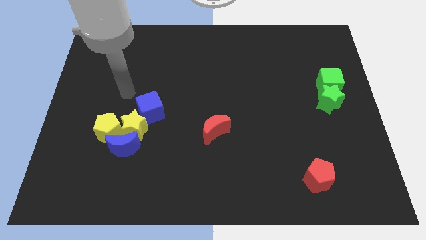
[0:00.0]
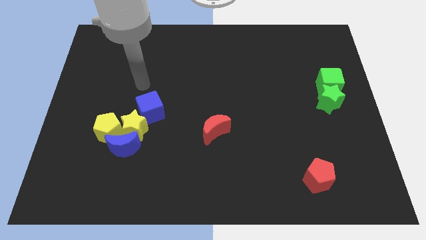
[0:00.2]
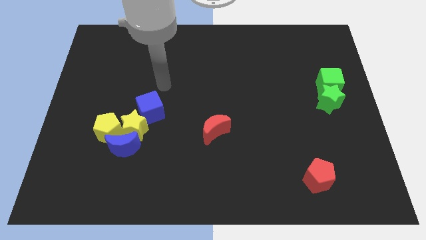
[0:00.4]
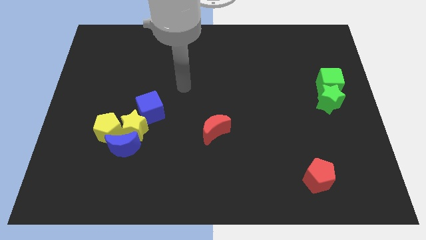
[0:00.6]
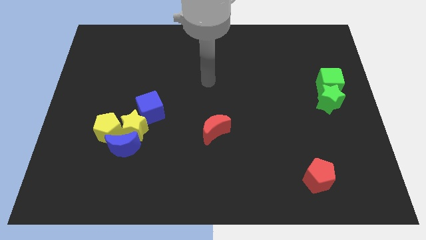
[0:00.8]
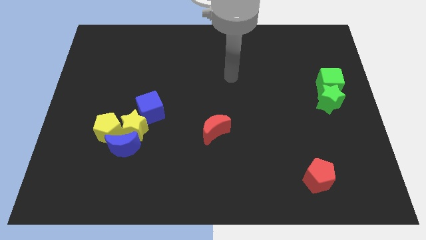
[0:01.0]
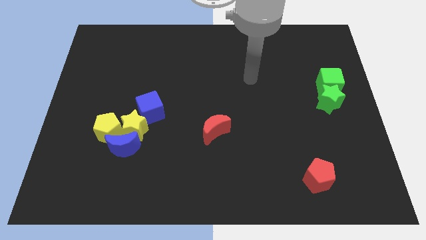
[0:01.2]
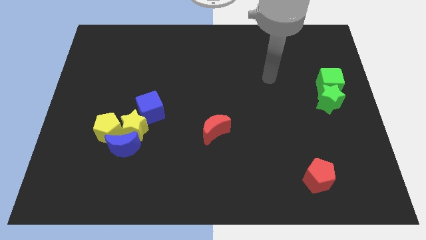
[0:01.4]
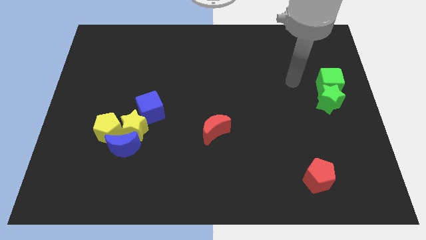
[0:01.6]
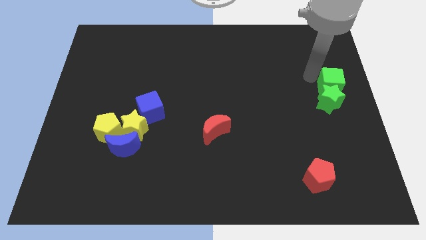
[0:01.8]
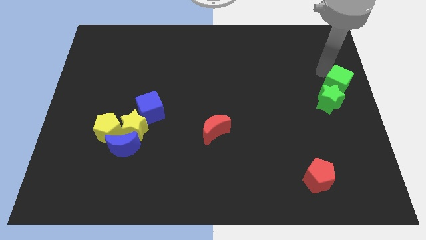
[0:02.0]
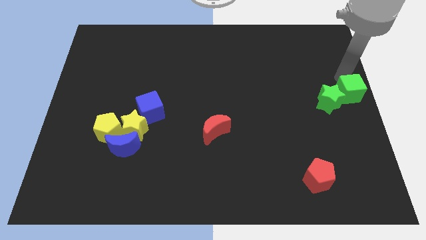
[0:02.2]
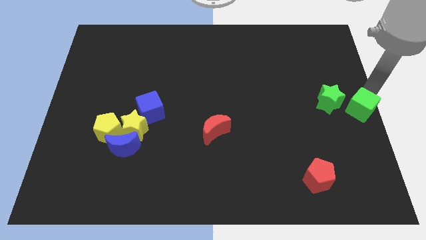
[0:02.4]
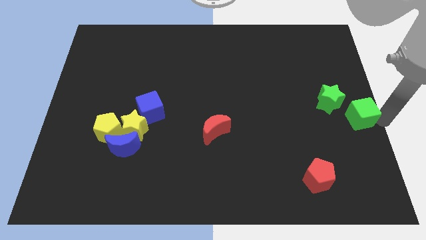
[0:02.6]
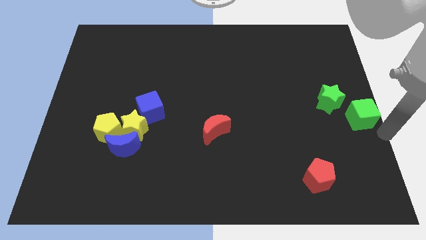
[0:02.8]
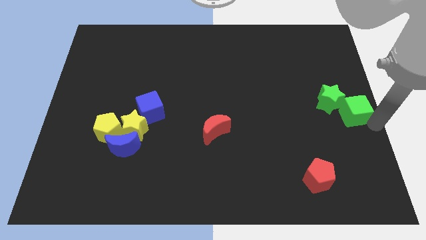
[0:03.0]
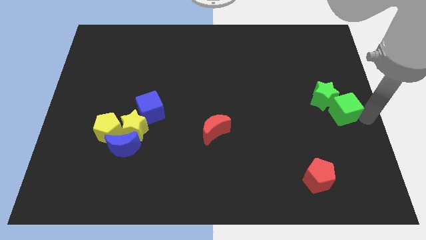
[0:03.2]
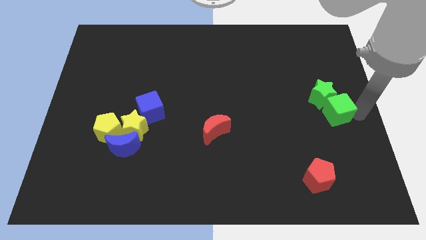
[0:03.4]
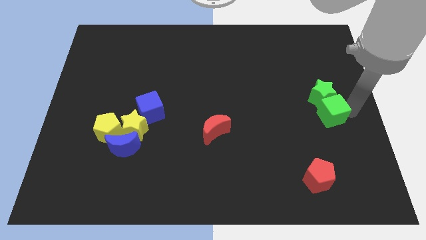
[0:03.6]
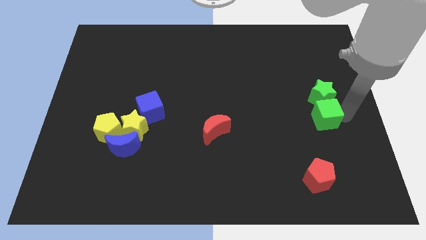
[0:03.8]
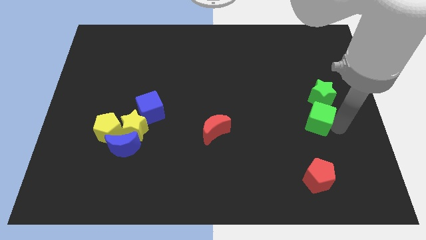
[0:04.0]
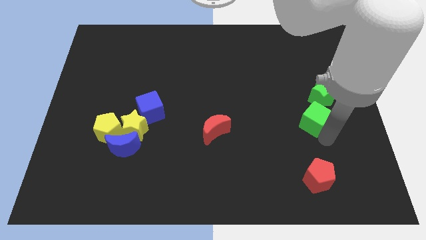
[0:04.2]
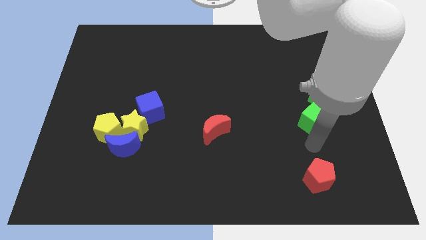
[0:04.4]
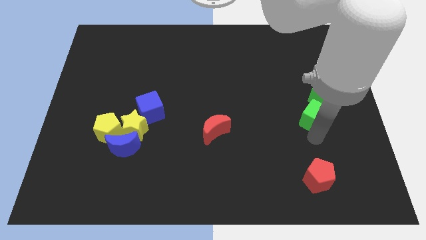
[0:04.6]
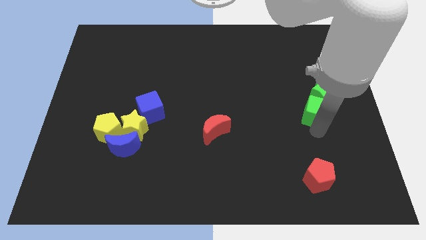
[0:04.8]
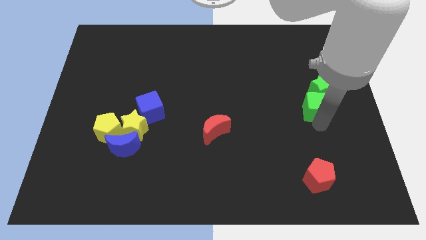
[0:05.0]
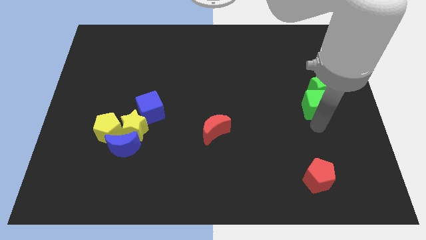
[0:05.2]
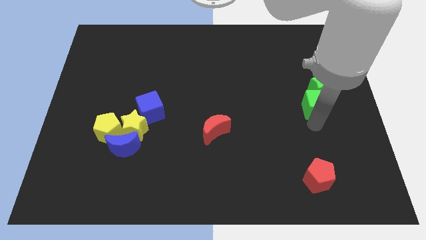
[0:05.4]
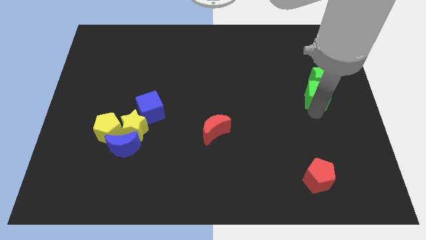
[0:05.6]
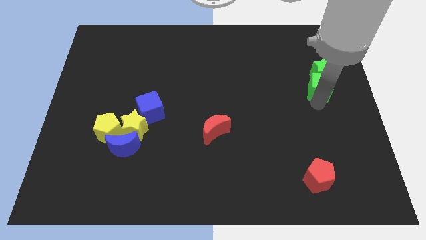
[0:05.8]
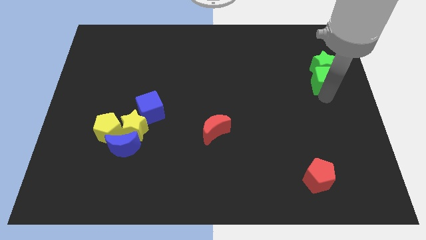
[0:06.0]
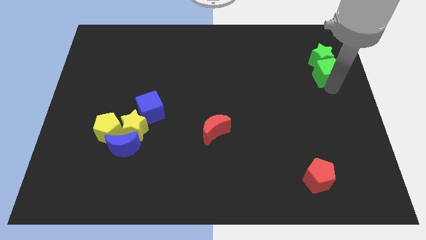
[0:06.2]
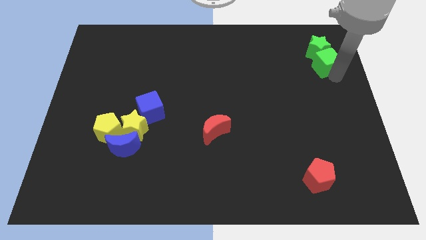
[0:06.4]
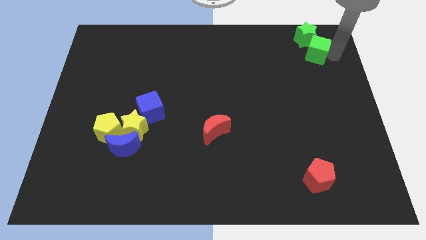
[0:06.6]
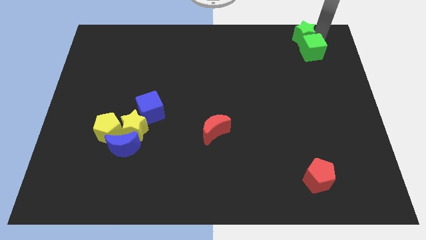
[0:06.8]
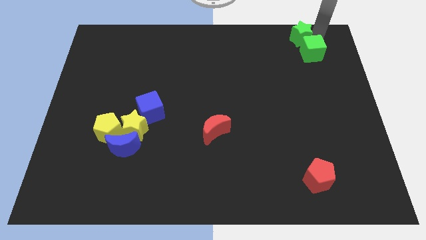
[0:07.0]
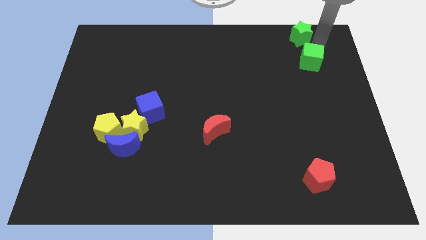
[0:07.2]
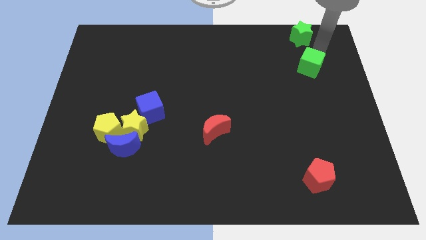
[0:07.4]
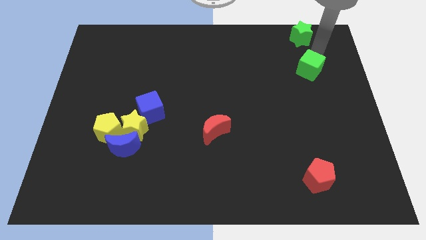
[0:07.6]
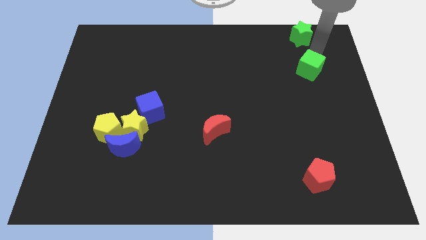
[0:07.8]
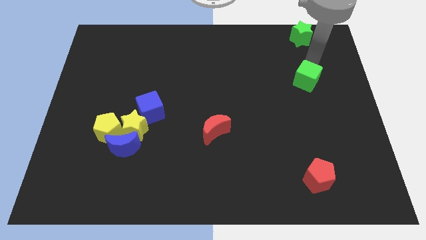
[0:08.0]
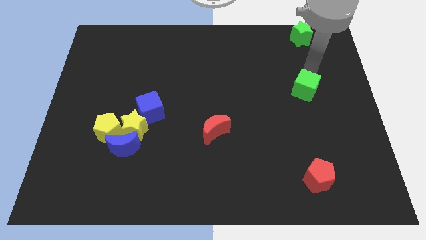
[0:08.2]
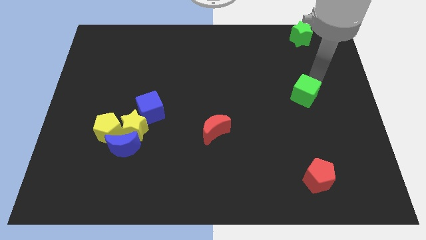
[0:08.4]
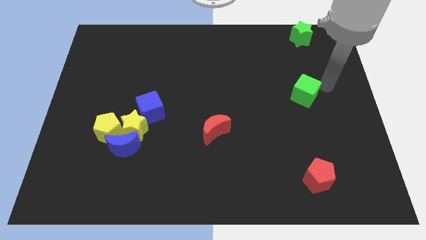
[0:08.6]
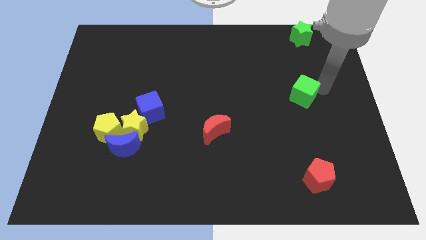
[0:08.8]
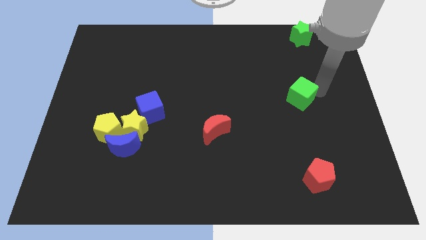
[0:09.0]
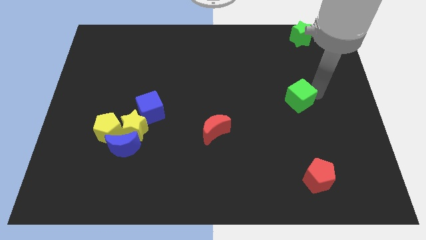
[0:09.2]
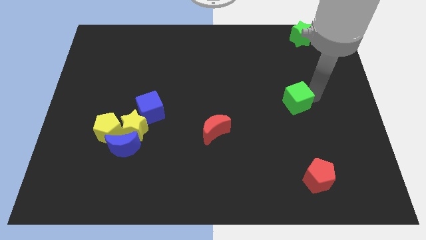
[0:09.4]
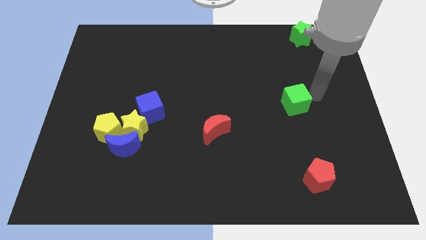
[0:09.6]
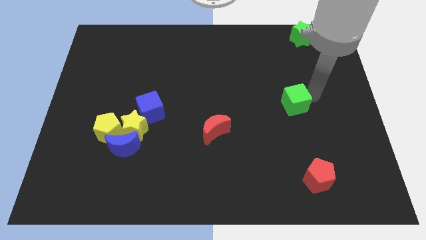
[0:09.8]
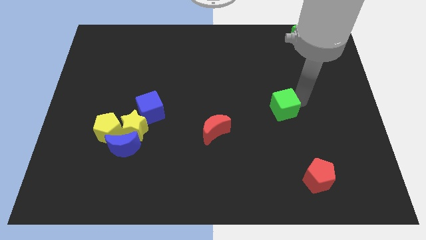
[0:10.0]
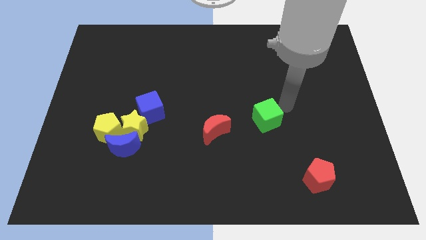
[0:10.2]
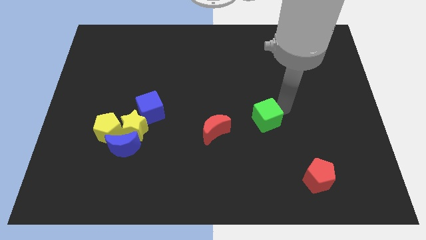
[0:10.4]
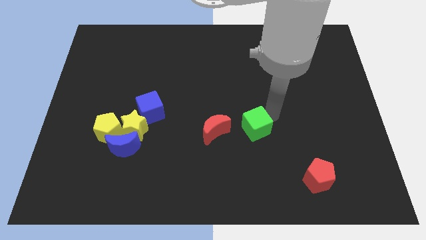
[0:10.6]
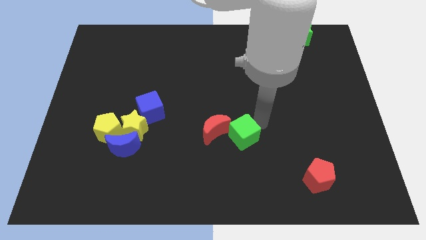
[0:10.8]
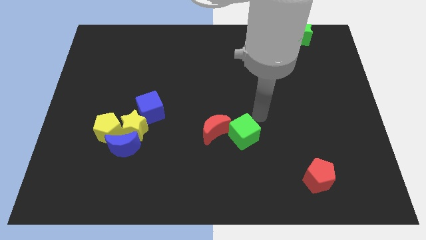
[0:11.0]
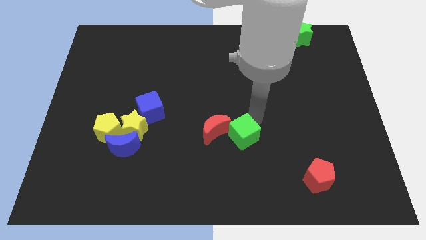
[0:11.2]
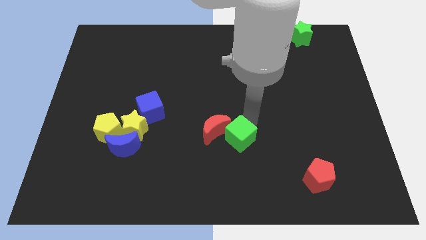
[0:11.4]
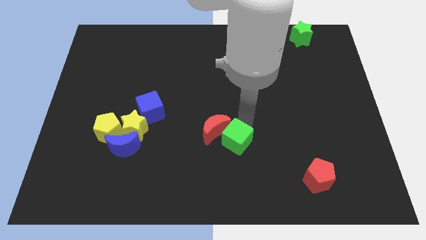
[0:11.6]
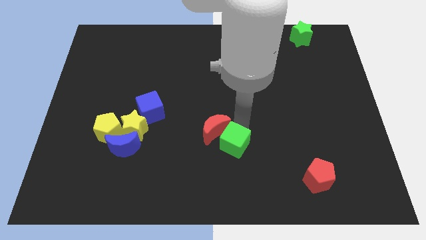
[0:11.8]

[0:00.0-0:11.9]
move the green cube to the bottom side of the red moon

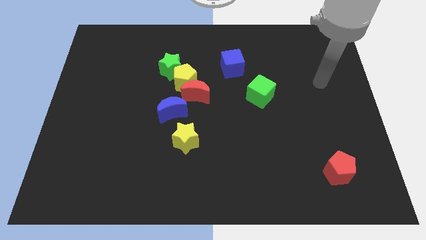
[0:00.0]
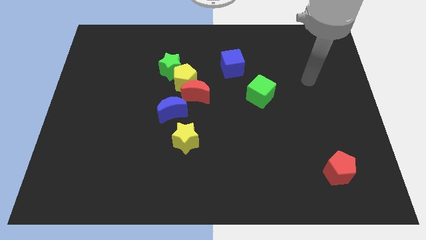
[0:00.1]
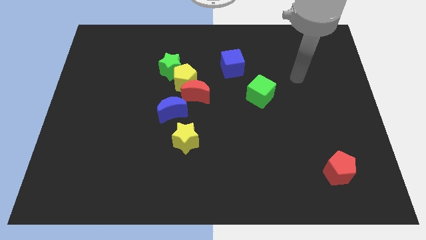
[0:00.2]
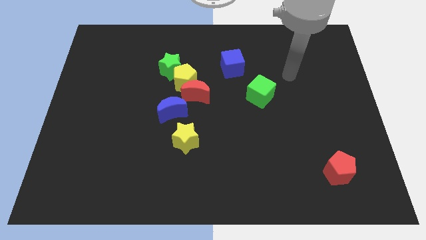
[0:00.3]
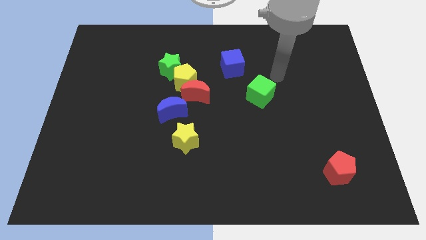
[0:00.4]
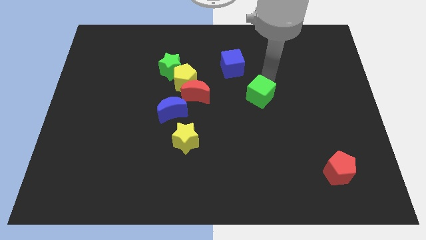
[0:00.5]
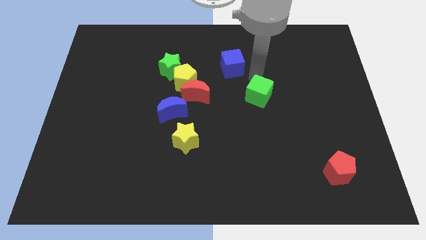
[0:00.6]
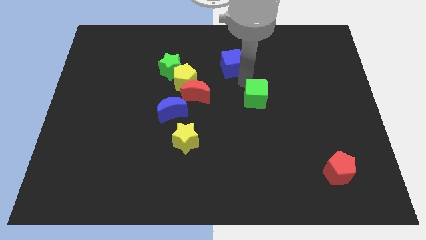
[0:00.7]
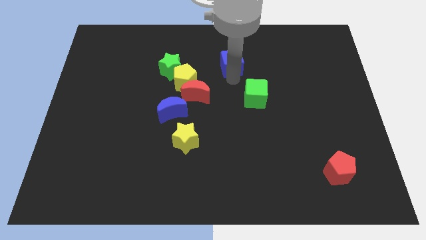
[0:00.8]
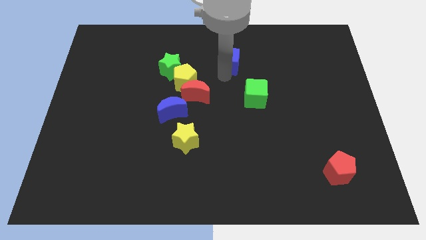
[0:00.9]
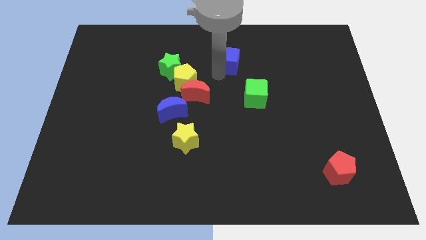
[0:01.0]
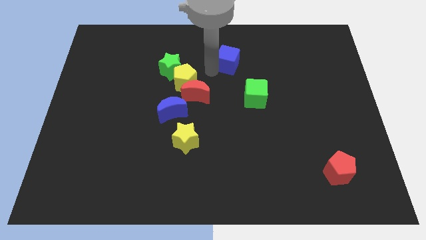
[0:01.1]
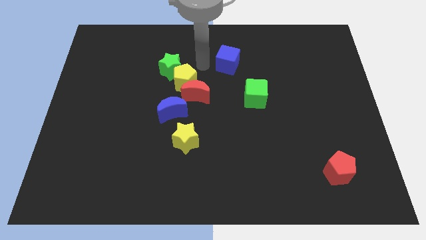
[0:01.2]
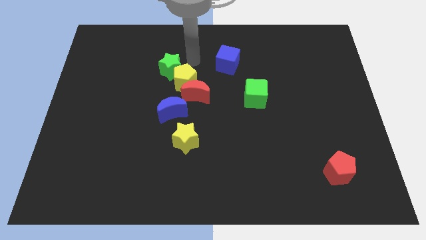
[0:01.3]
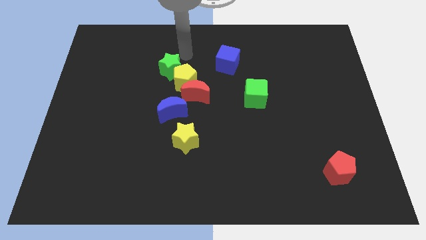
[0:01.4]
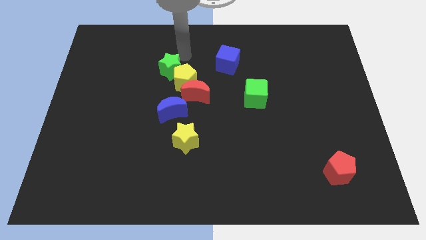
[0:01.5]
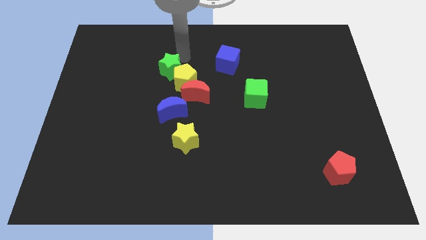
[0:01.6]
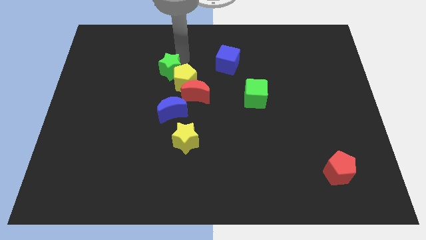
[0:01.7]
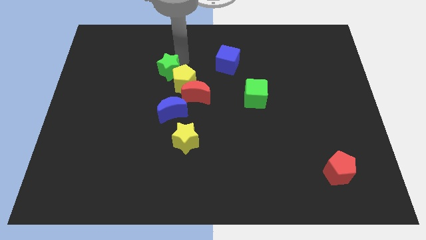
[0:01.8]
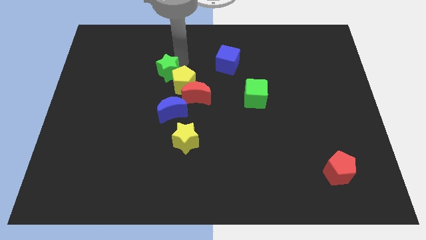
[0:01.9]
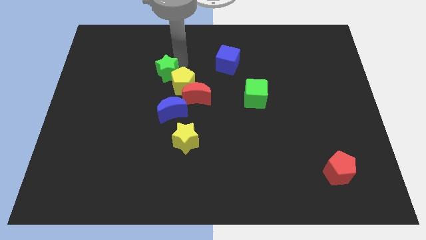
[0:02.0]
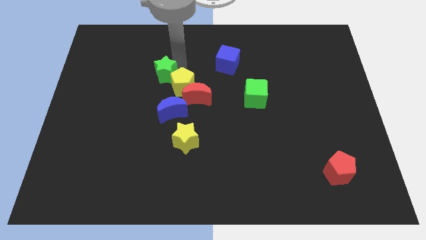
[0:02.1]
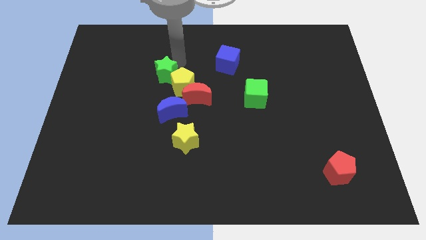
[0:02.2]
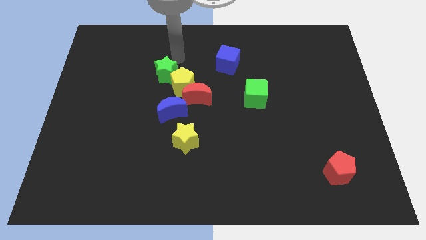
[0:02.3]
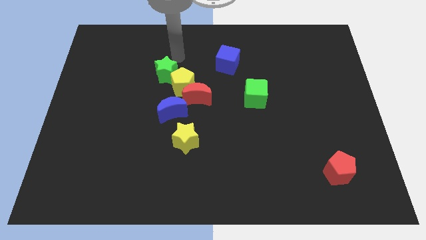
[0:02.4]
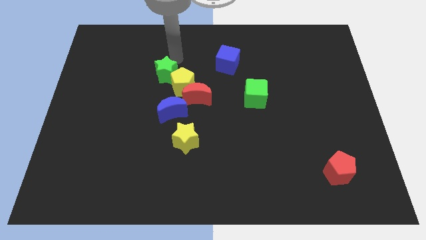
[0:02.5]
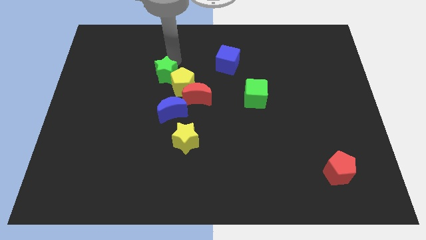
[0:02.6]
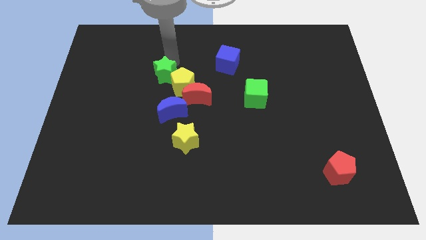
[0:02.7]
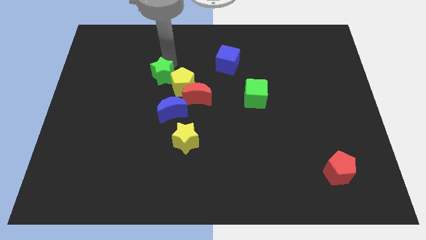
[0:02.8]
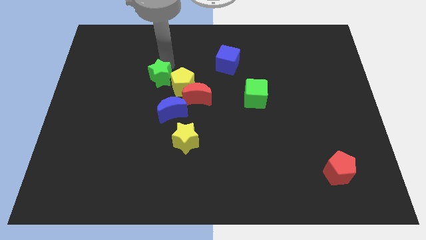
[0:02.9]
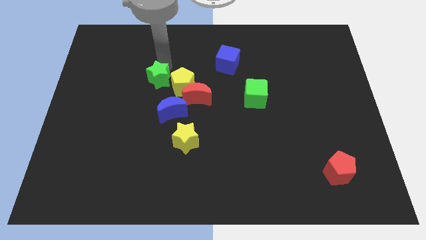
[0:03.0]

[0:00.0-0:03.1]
slide the green star to the top left of the blue moon
